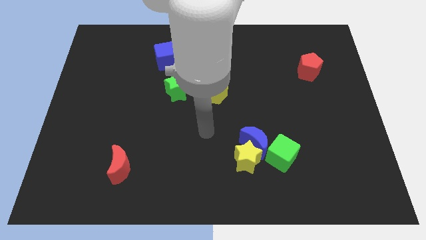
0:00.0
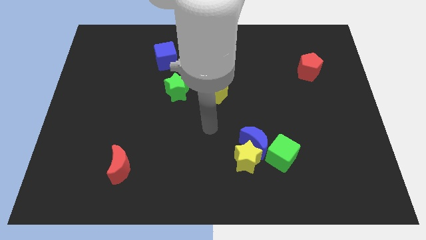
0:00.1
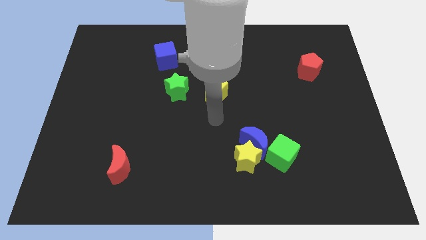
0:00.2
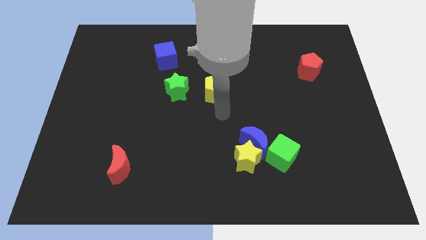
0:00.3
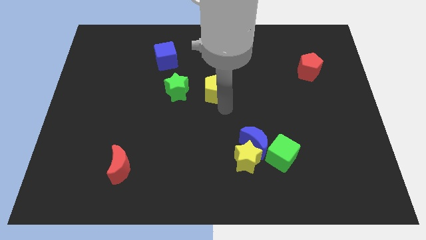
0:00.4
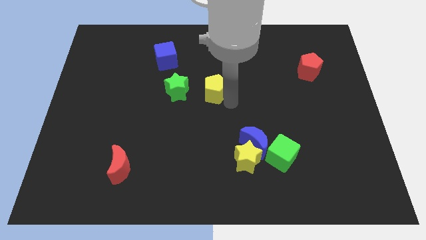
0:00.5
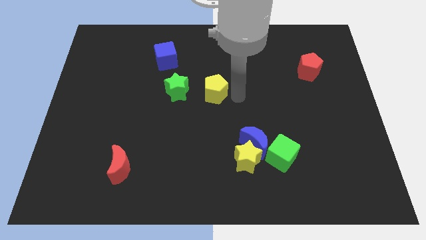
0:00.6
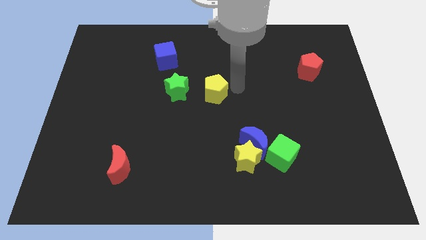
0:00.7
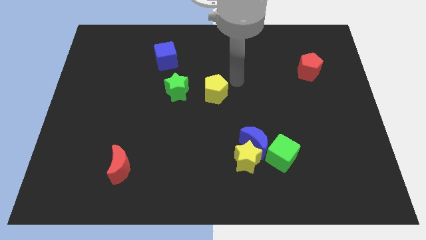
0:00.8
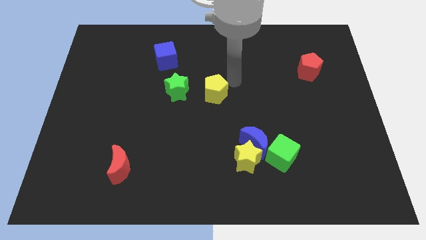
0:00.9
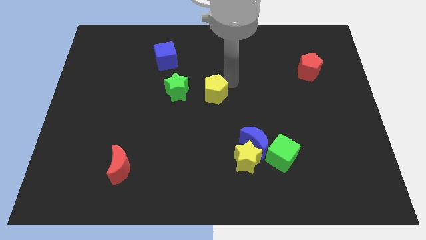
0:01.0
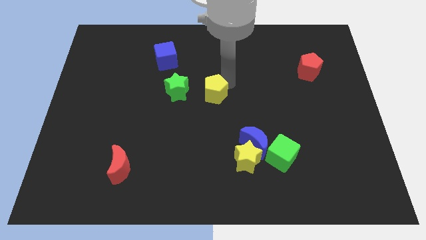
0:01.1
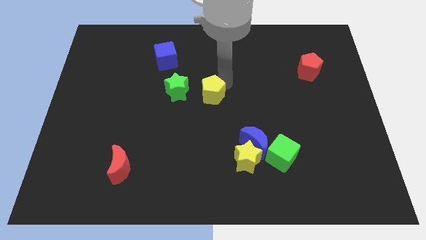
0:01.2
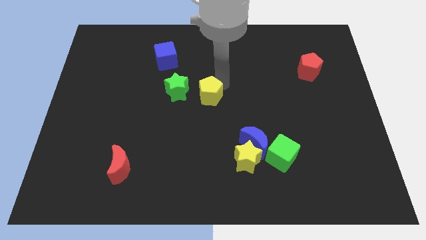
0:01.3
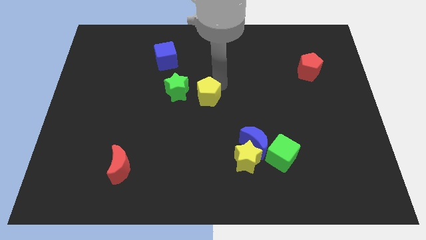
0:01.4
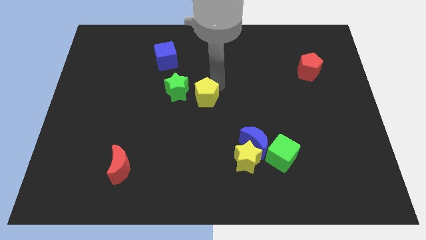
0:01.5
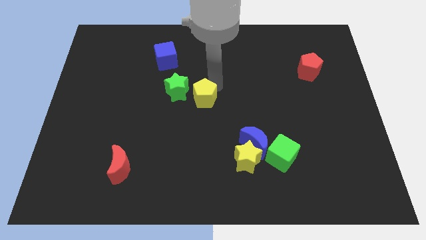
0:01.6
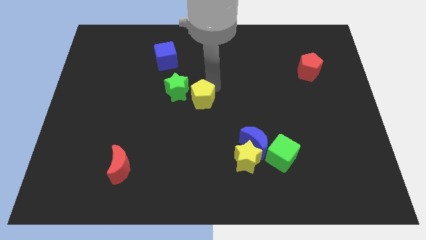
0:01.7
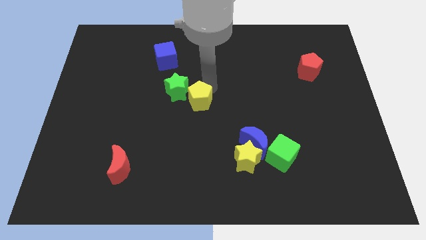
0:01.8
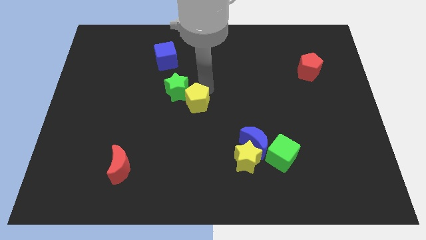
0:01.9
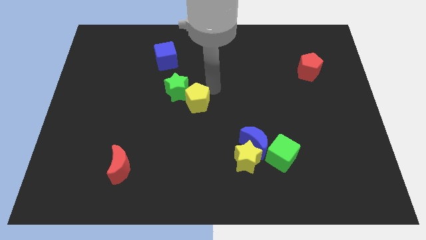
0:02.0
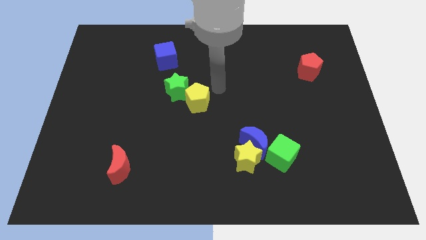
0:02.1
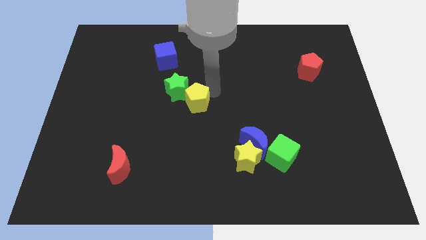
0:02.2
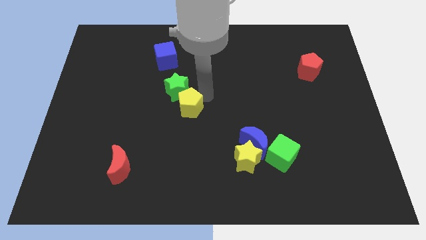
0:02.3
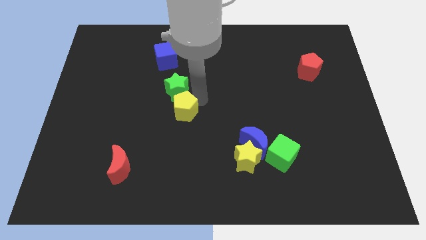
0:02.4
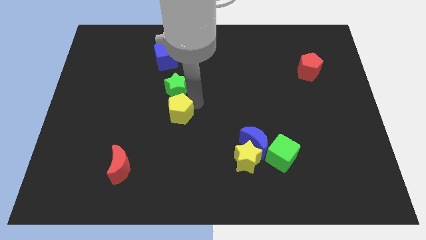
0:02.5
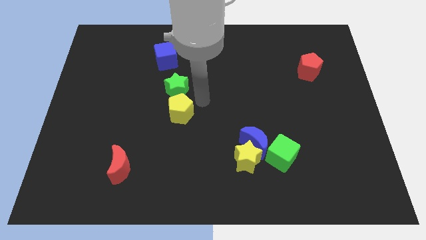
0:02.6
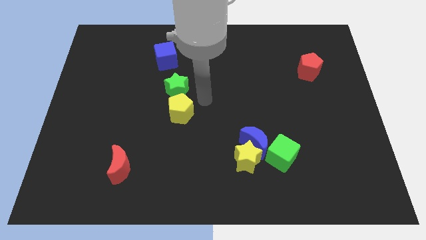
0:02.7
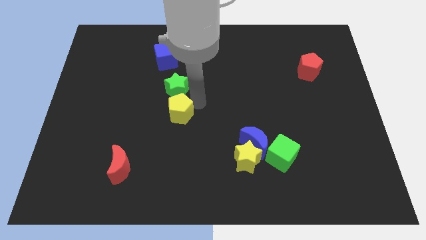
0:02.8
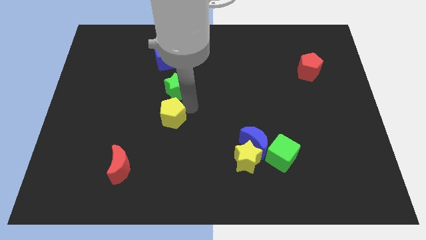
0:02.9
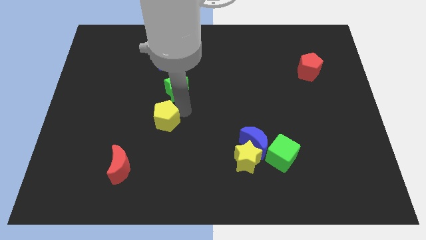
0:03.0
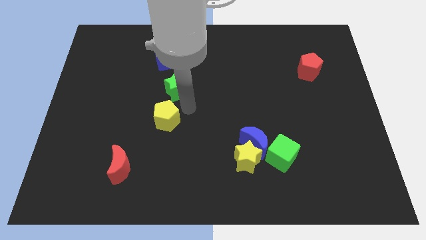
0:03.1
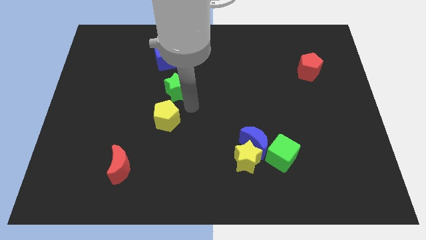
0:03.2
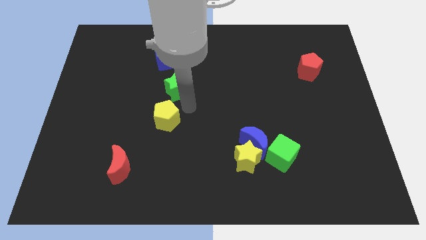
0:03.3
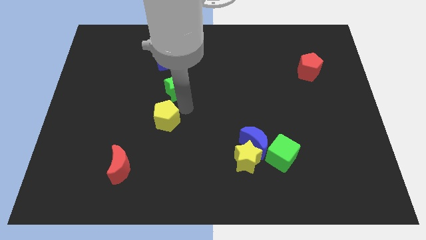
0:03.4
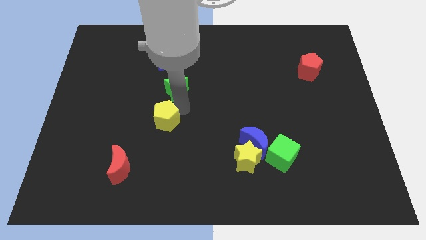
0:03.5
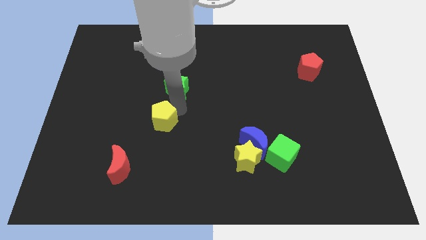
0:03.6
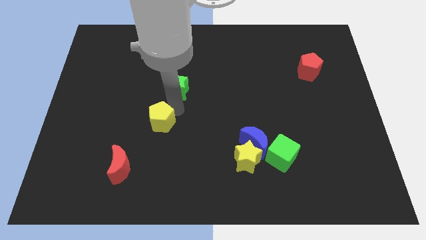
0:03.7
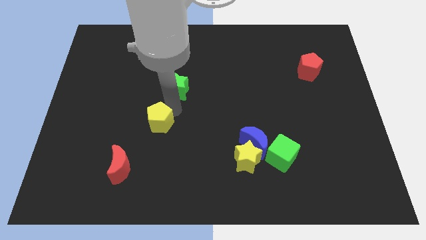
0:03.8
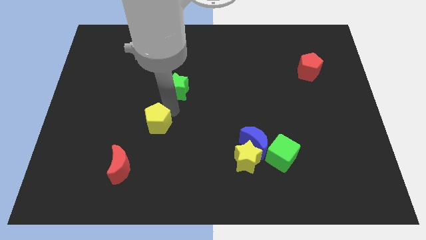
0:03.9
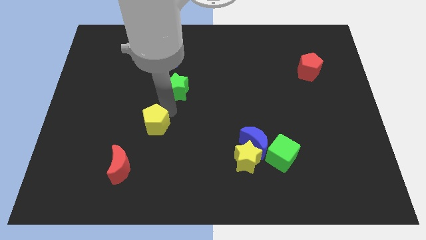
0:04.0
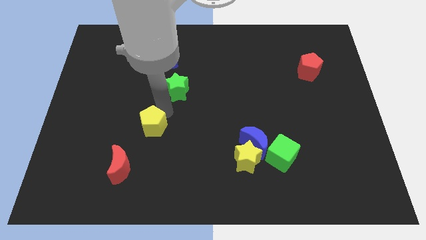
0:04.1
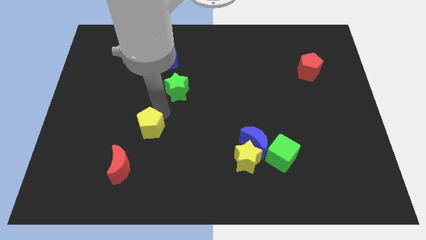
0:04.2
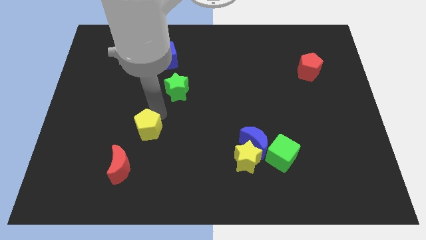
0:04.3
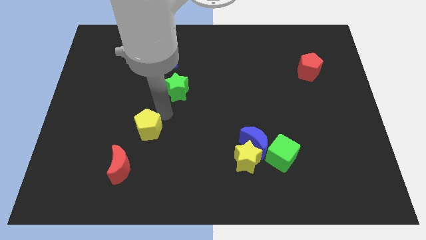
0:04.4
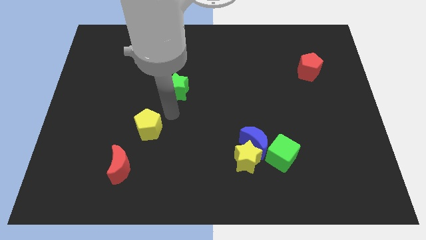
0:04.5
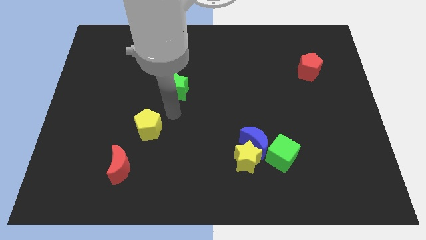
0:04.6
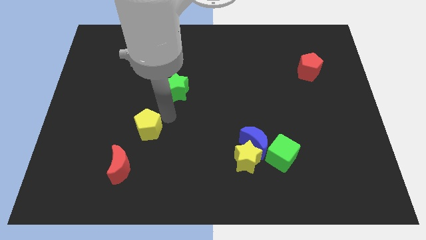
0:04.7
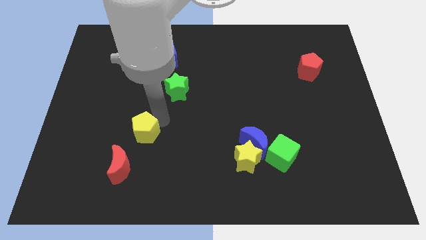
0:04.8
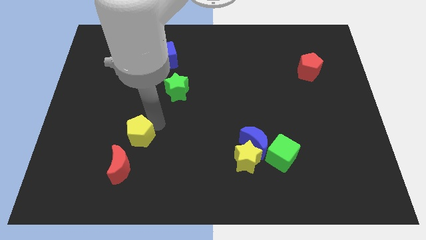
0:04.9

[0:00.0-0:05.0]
slide the yellow pentagon downwards and then left

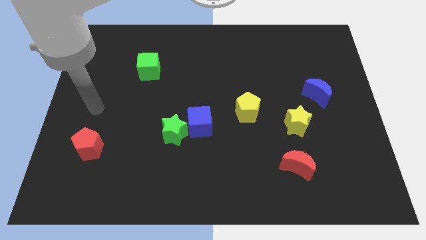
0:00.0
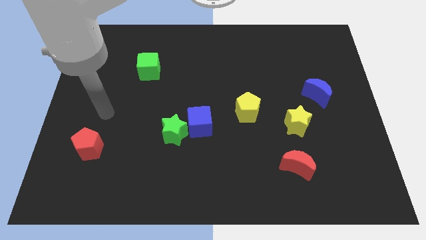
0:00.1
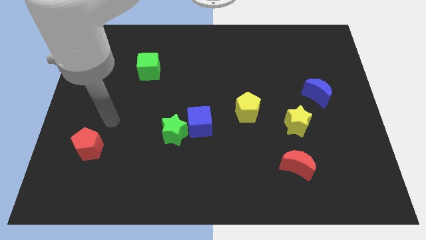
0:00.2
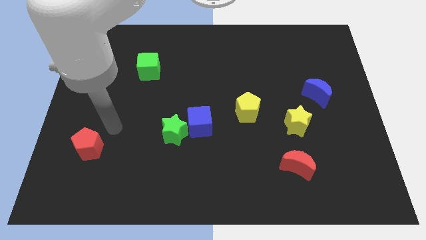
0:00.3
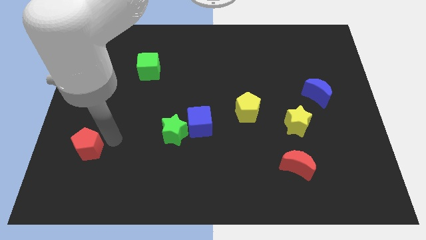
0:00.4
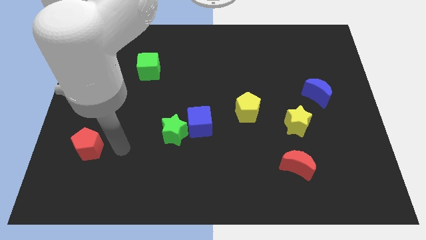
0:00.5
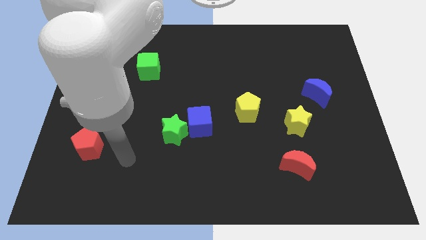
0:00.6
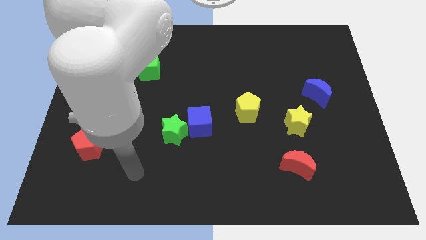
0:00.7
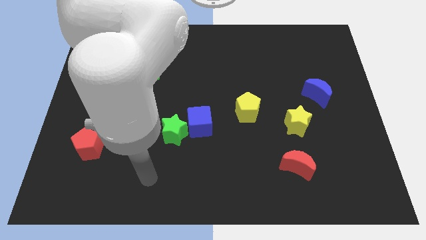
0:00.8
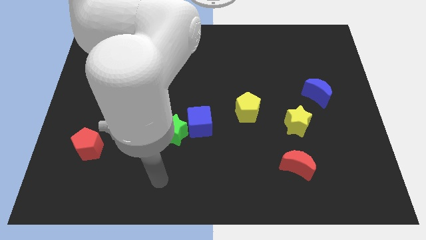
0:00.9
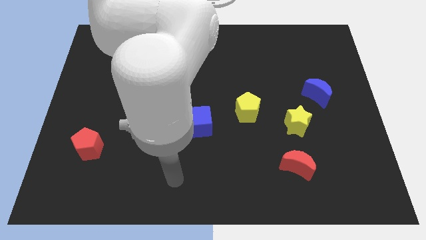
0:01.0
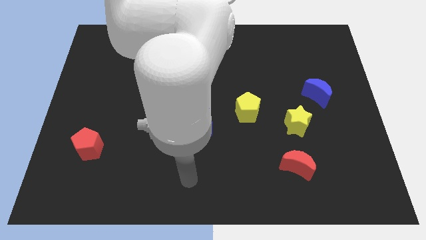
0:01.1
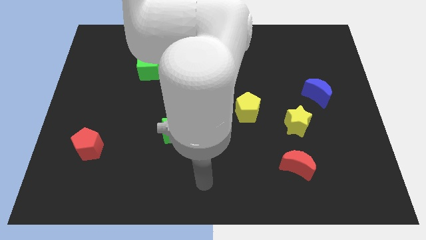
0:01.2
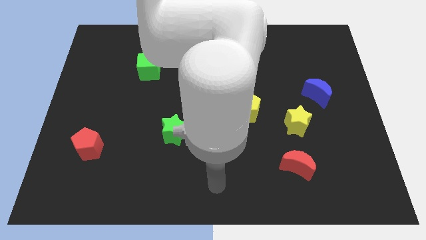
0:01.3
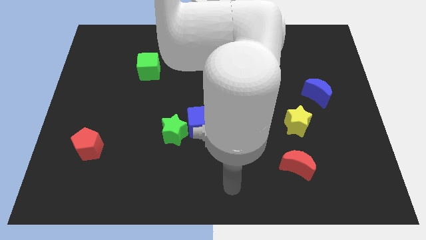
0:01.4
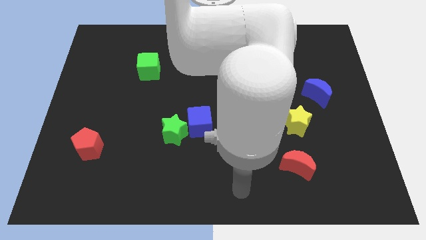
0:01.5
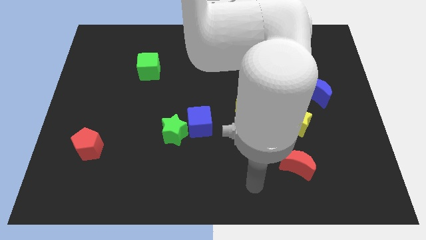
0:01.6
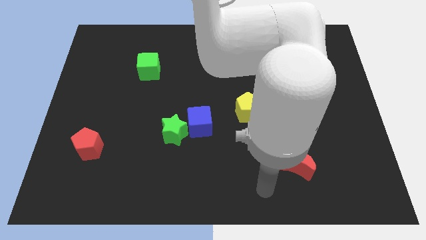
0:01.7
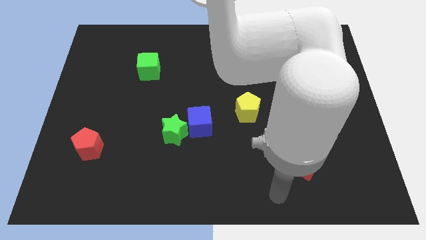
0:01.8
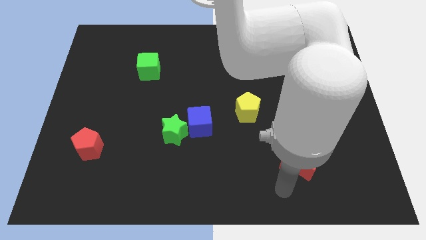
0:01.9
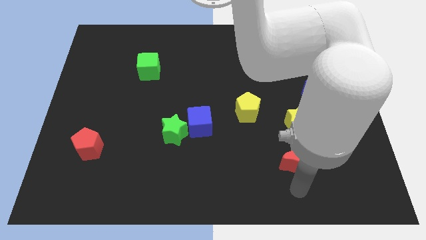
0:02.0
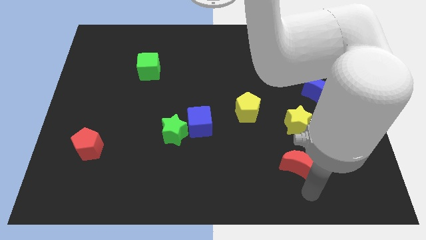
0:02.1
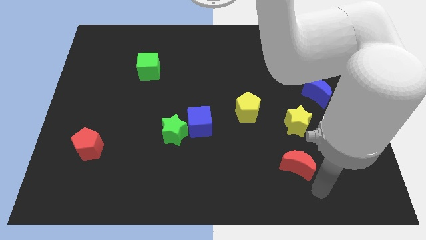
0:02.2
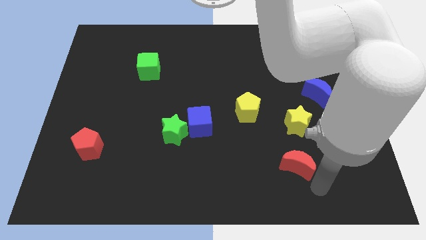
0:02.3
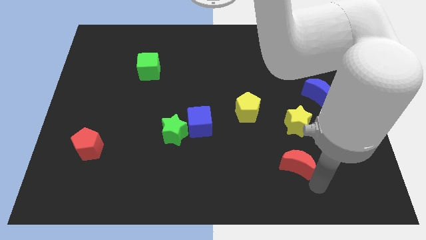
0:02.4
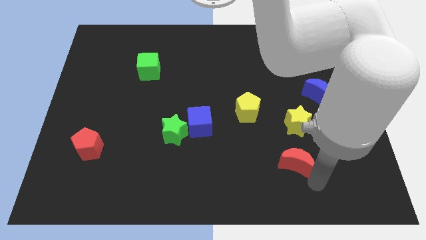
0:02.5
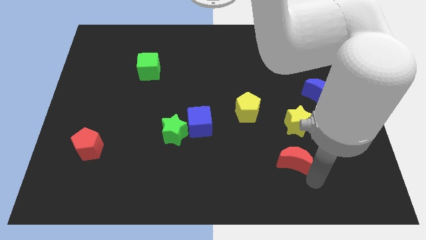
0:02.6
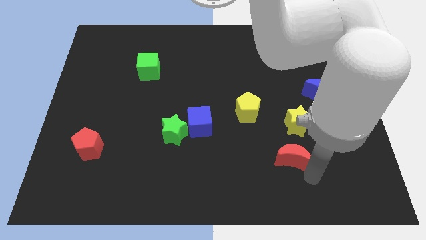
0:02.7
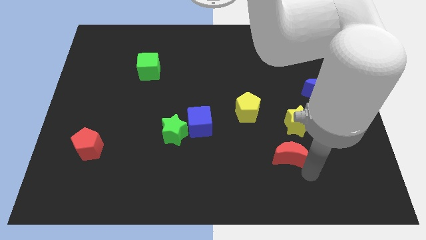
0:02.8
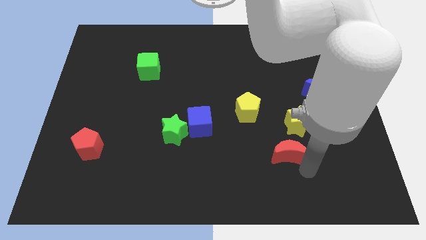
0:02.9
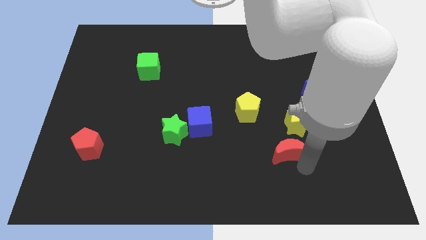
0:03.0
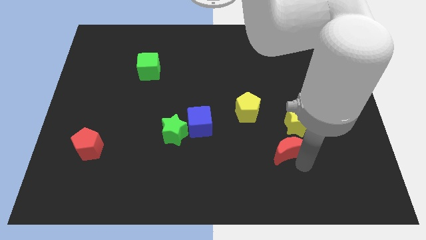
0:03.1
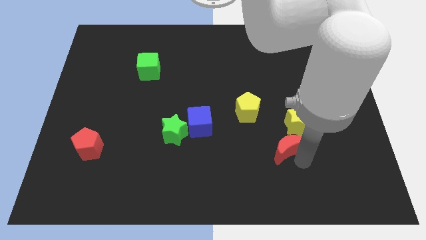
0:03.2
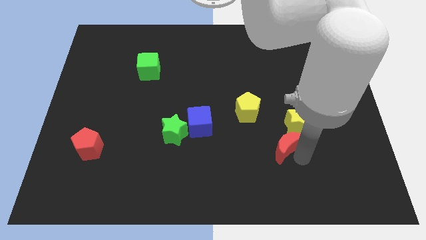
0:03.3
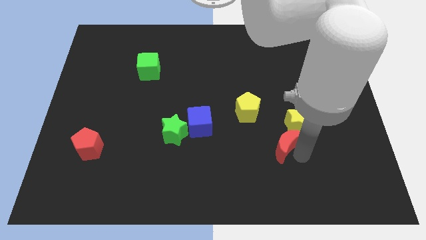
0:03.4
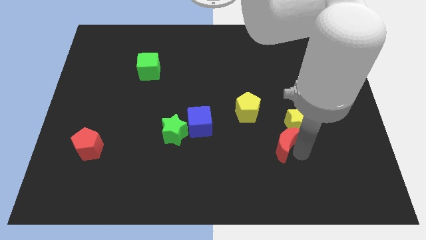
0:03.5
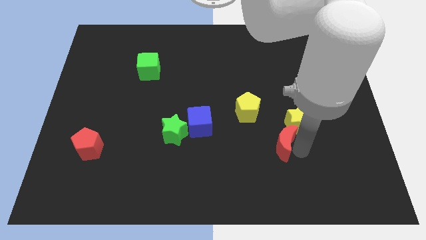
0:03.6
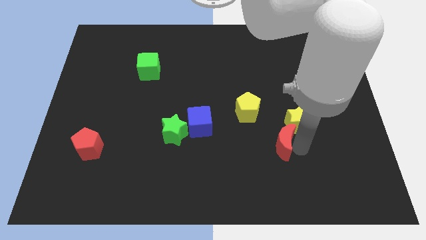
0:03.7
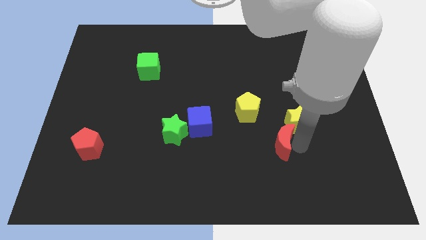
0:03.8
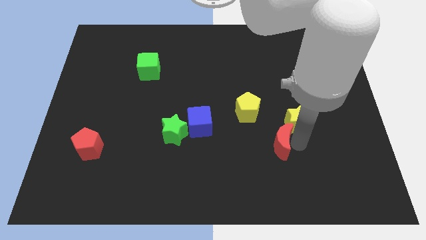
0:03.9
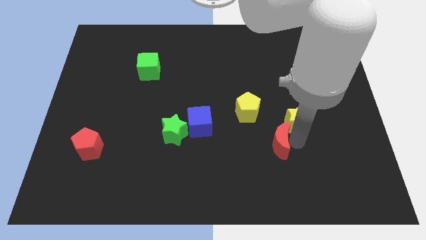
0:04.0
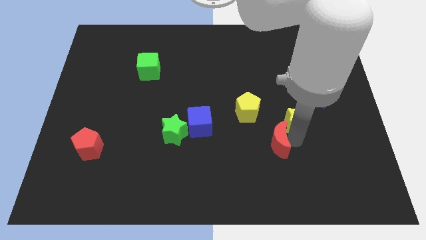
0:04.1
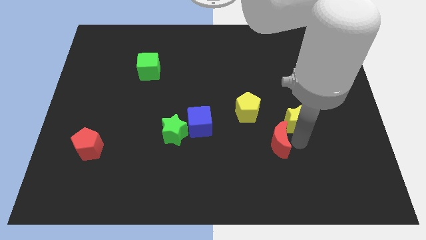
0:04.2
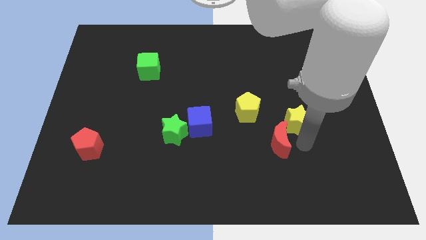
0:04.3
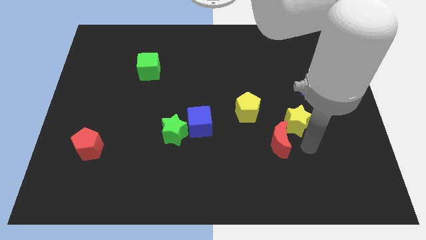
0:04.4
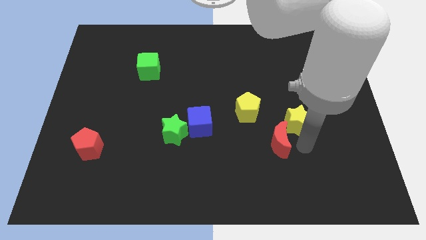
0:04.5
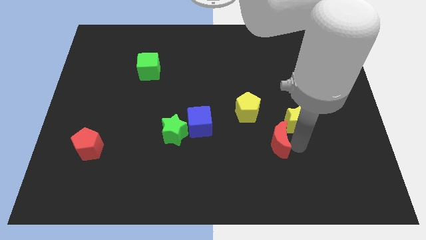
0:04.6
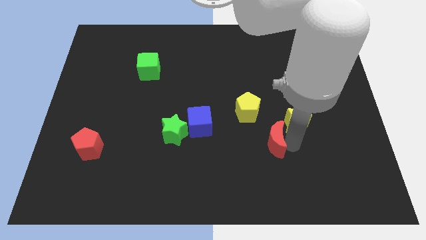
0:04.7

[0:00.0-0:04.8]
slide the red moon upwards and left diagonally a little bit
